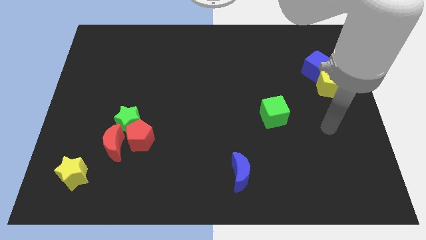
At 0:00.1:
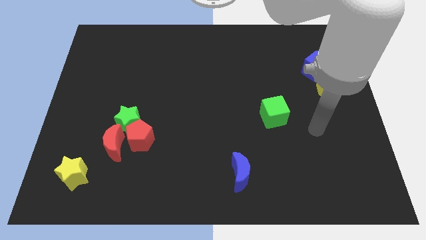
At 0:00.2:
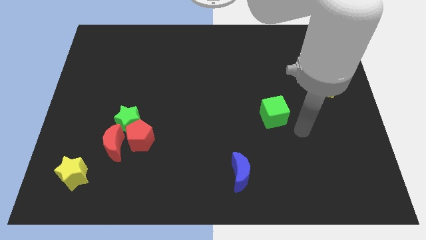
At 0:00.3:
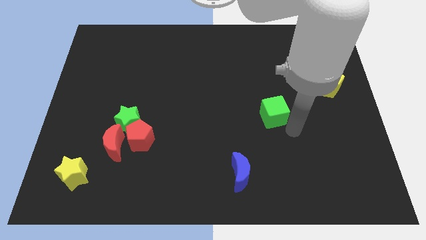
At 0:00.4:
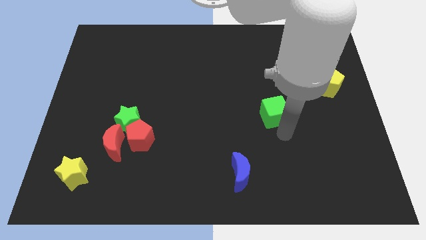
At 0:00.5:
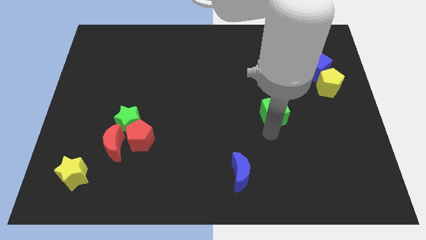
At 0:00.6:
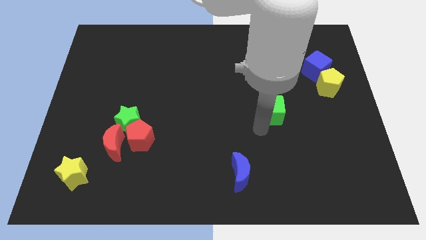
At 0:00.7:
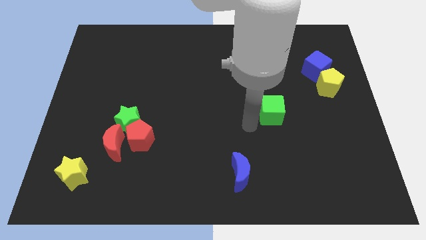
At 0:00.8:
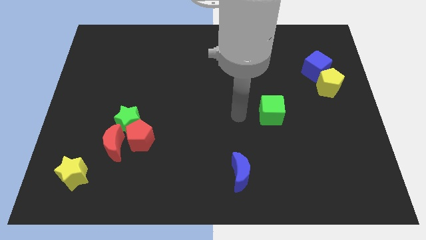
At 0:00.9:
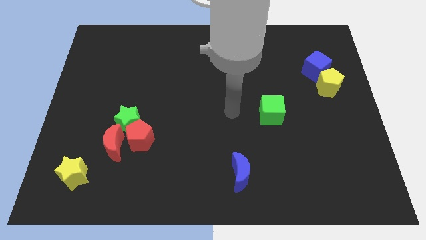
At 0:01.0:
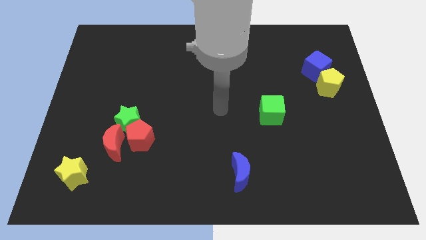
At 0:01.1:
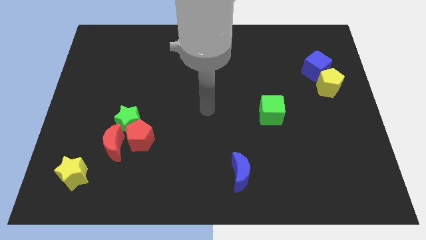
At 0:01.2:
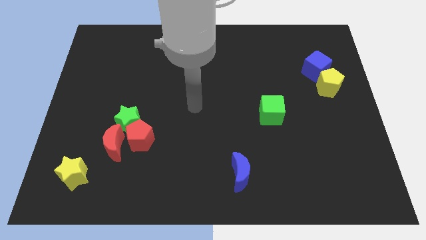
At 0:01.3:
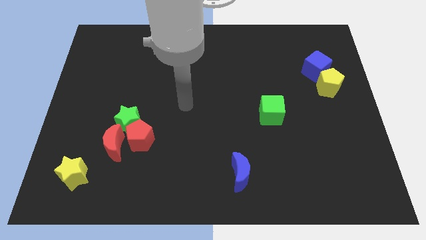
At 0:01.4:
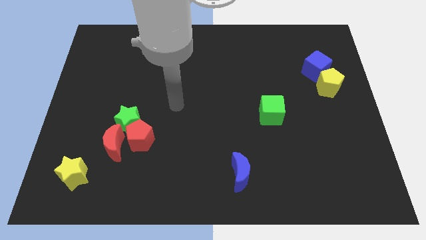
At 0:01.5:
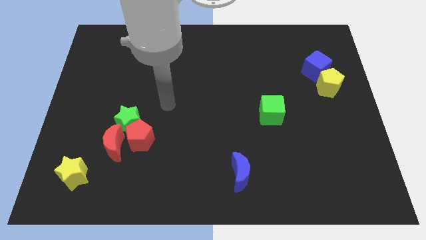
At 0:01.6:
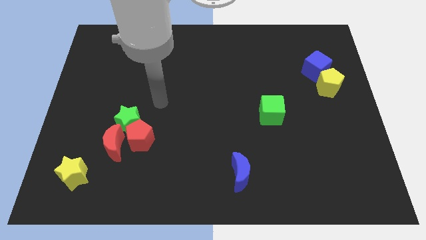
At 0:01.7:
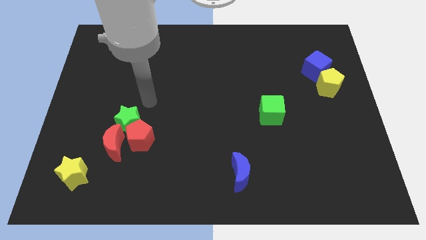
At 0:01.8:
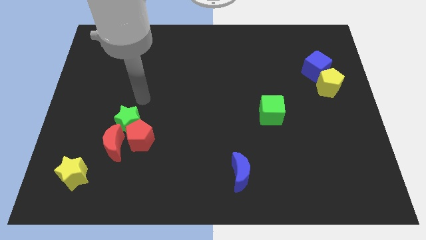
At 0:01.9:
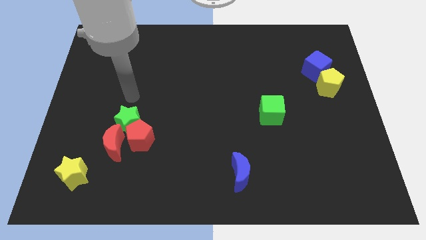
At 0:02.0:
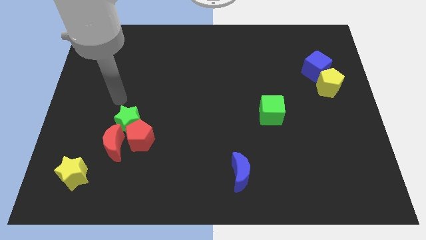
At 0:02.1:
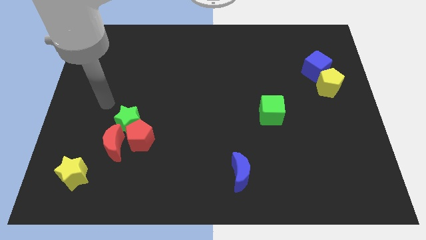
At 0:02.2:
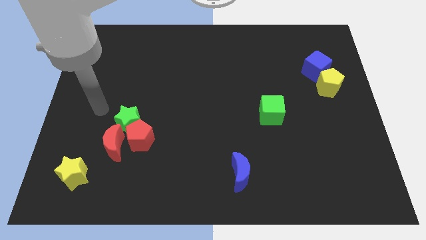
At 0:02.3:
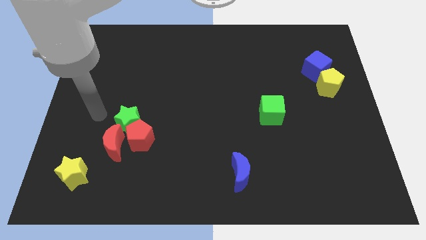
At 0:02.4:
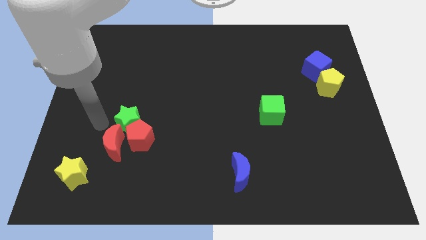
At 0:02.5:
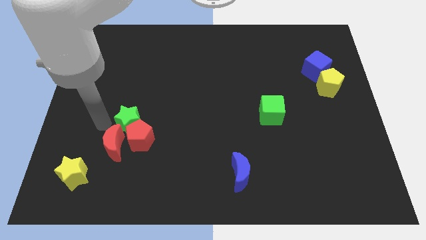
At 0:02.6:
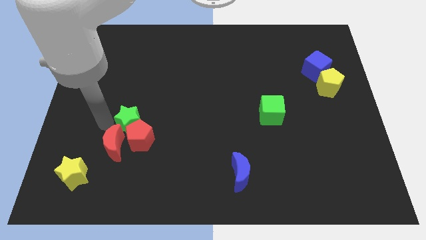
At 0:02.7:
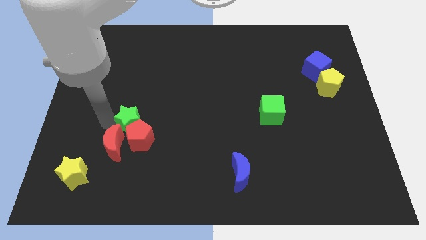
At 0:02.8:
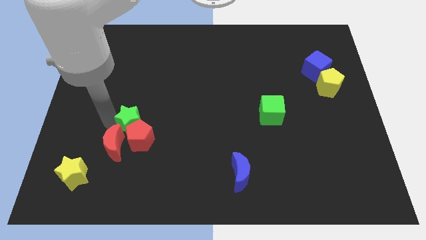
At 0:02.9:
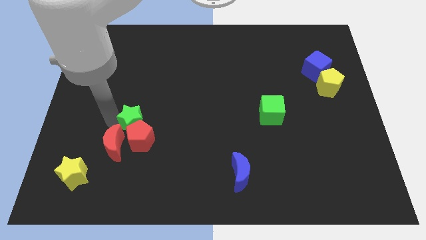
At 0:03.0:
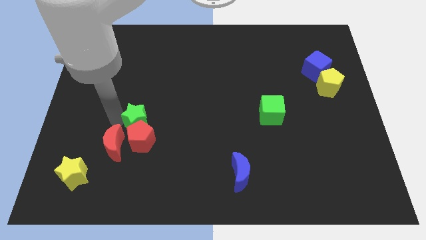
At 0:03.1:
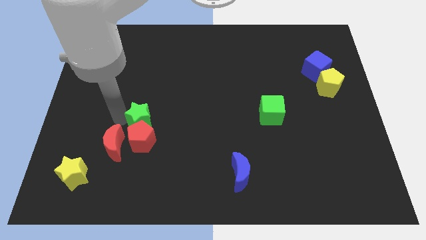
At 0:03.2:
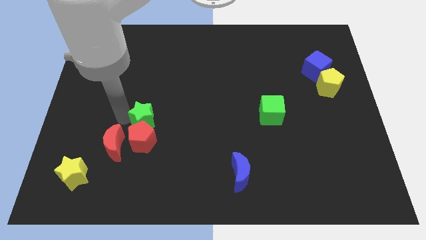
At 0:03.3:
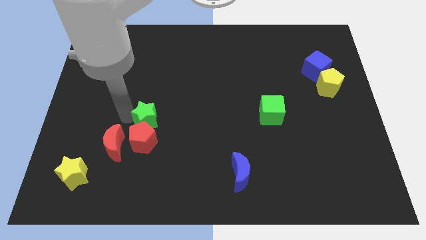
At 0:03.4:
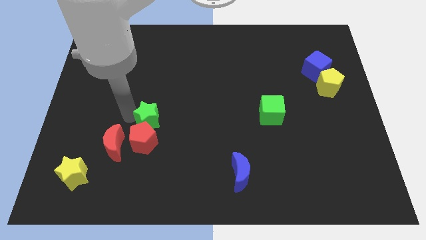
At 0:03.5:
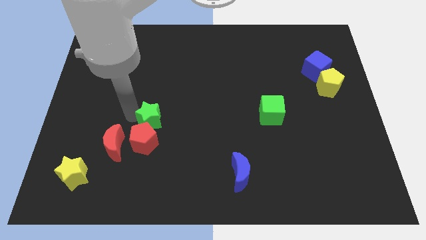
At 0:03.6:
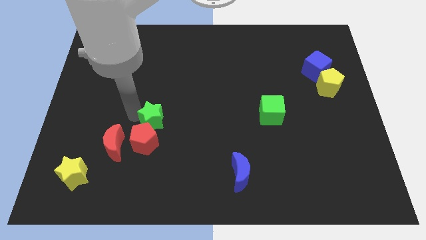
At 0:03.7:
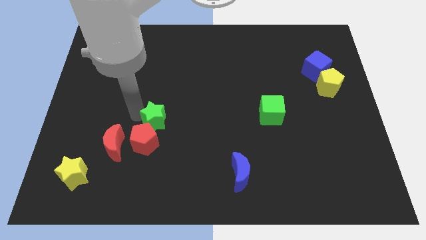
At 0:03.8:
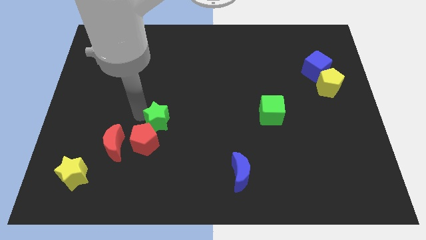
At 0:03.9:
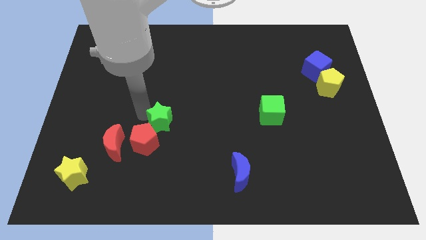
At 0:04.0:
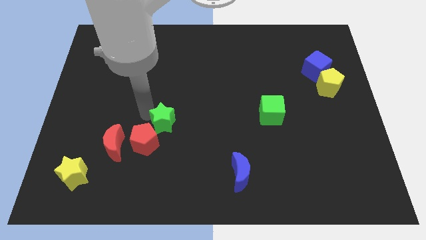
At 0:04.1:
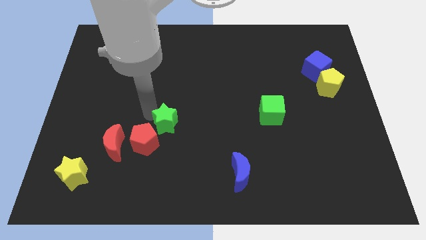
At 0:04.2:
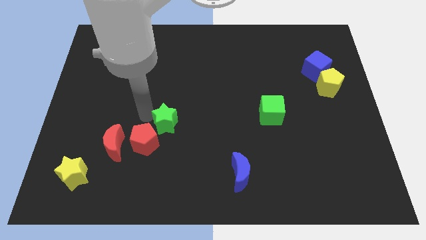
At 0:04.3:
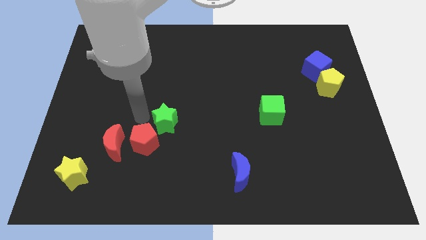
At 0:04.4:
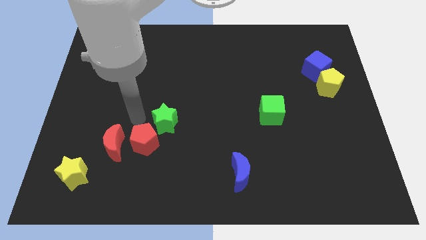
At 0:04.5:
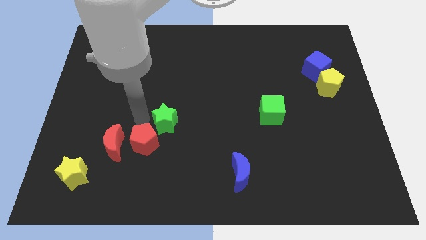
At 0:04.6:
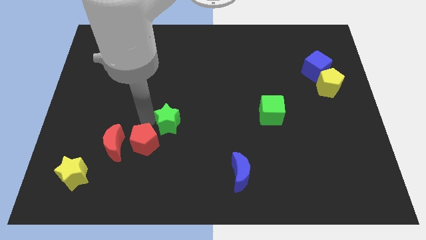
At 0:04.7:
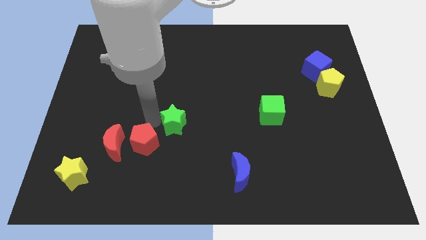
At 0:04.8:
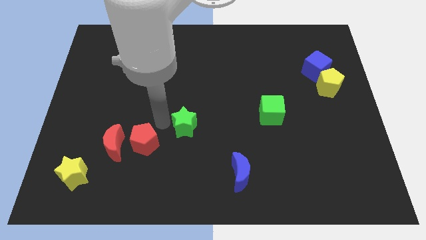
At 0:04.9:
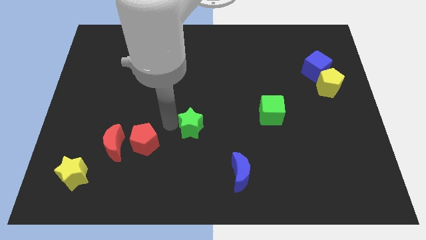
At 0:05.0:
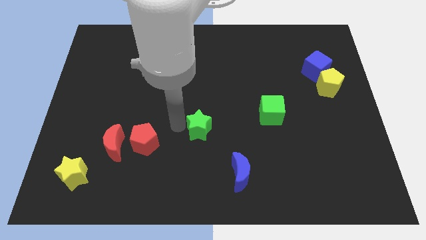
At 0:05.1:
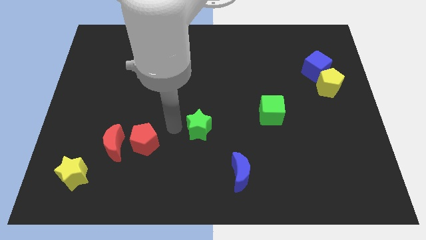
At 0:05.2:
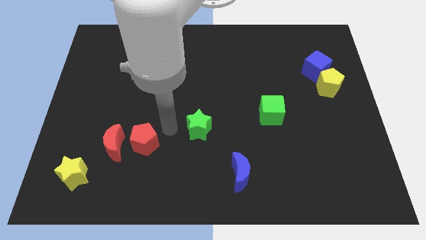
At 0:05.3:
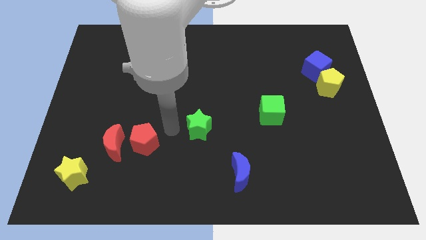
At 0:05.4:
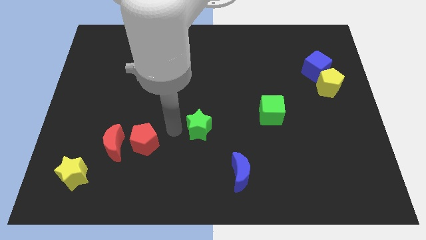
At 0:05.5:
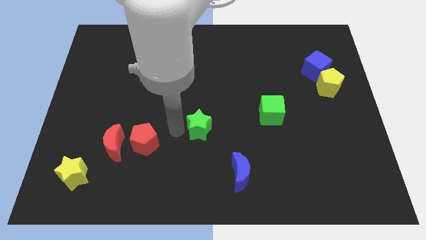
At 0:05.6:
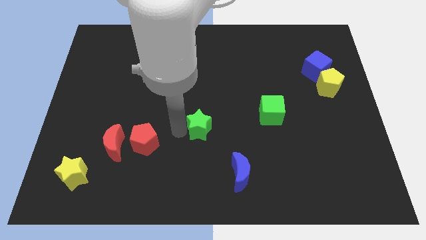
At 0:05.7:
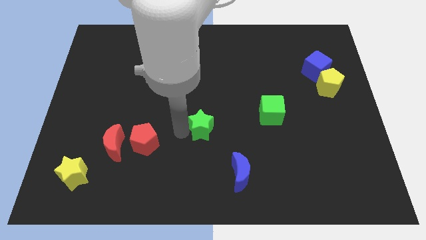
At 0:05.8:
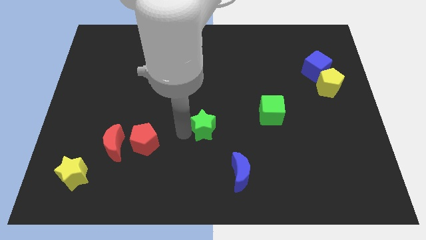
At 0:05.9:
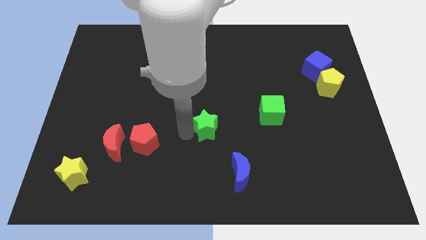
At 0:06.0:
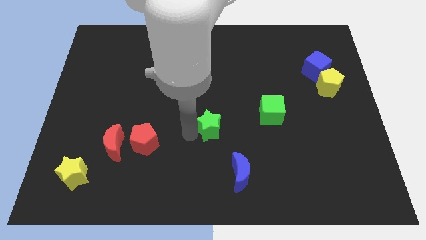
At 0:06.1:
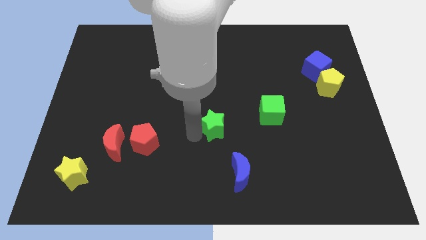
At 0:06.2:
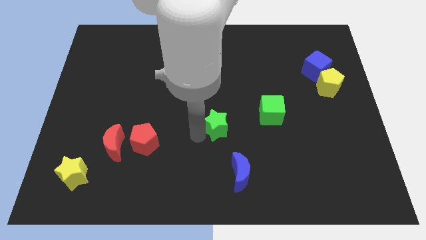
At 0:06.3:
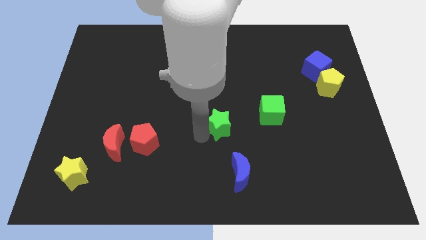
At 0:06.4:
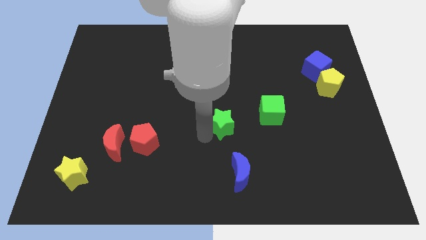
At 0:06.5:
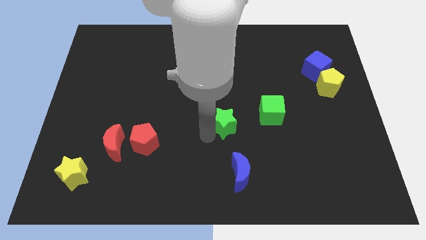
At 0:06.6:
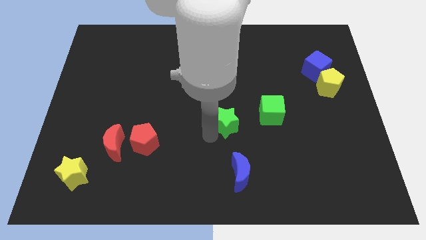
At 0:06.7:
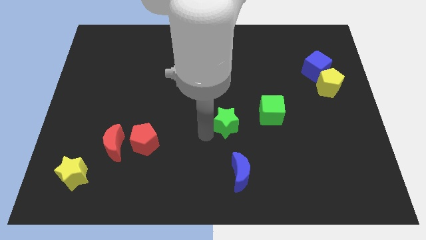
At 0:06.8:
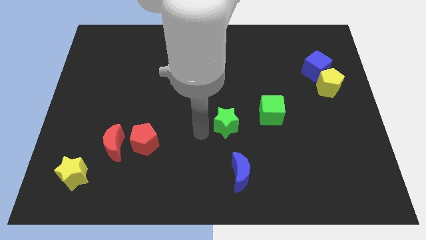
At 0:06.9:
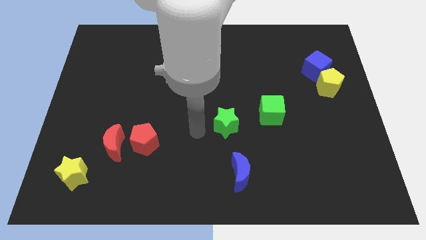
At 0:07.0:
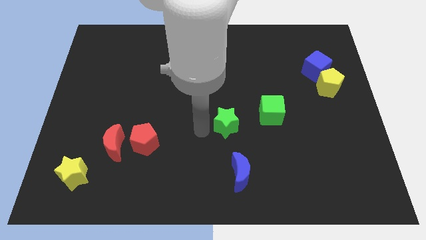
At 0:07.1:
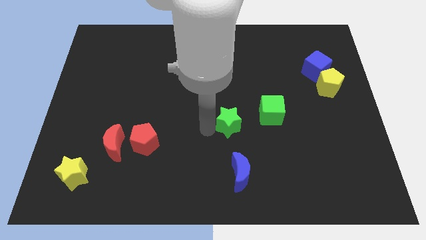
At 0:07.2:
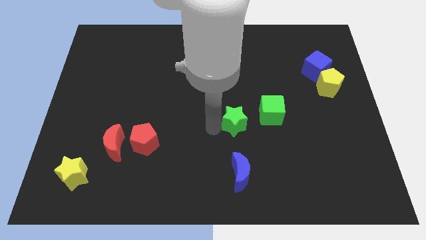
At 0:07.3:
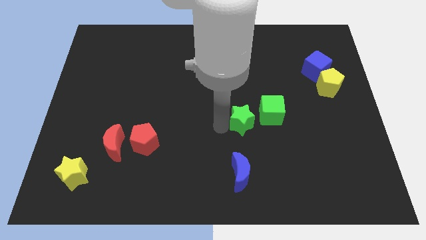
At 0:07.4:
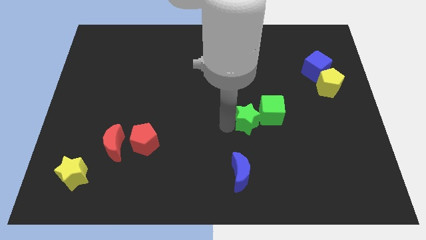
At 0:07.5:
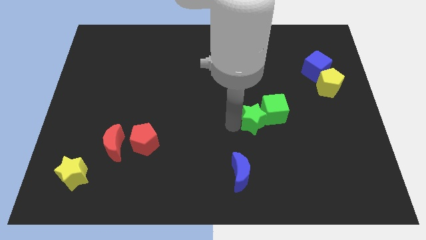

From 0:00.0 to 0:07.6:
slide the green star towards the green cube
